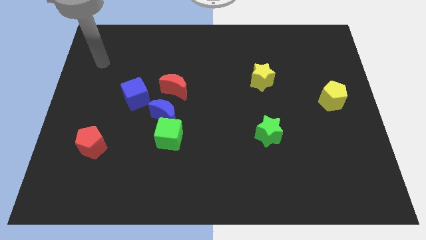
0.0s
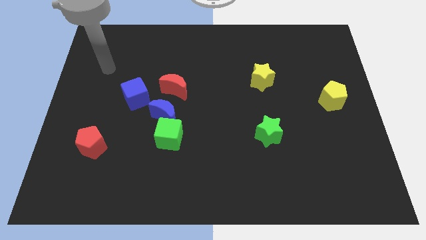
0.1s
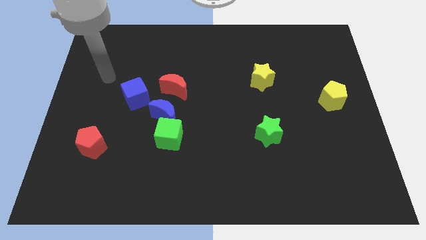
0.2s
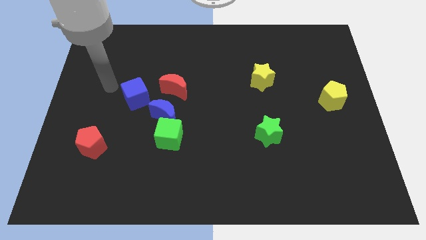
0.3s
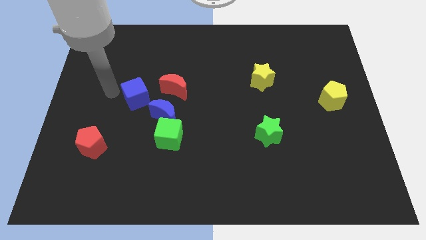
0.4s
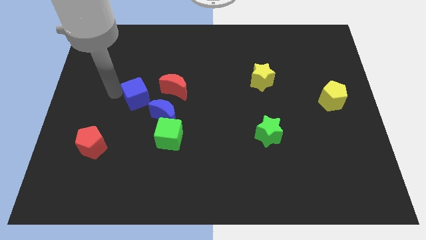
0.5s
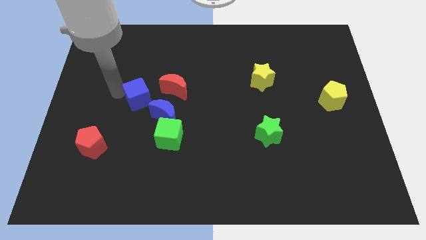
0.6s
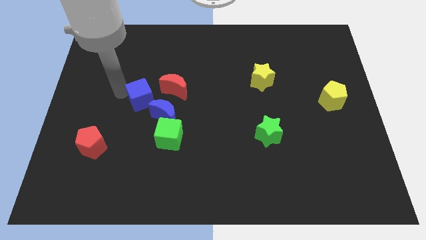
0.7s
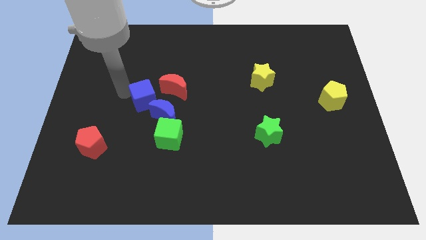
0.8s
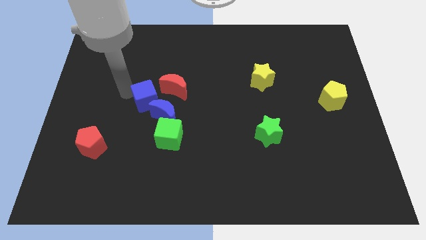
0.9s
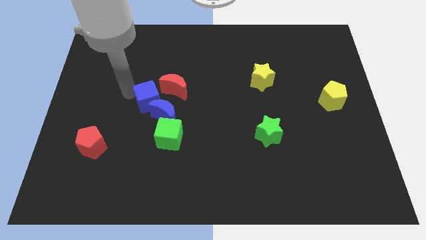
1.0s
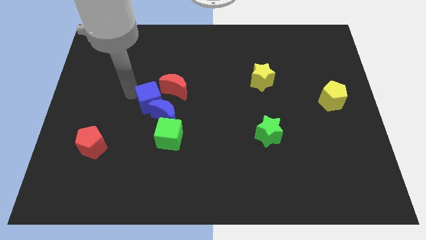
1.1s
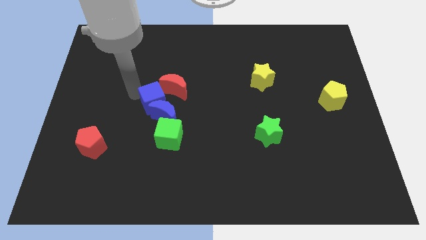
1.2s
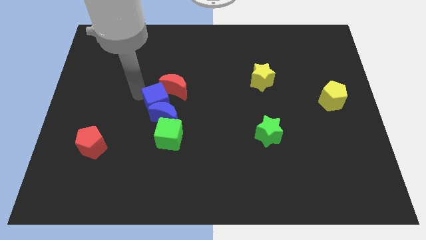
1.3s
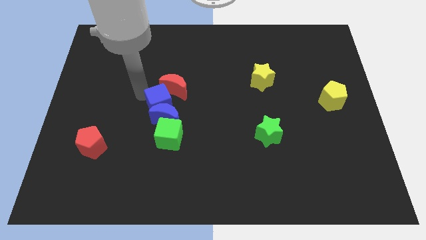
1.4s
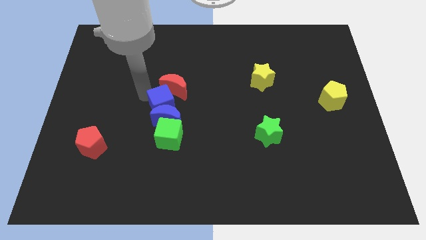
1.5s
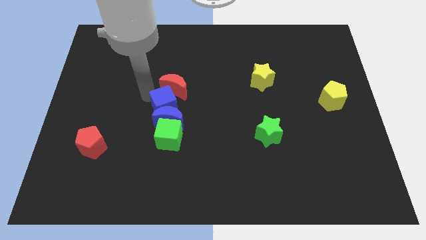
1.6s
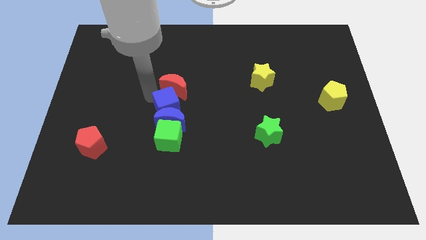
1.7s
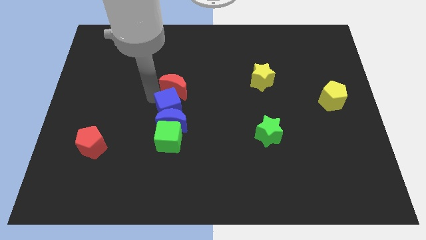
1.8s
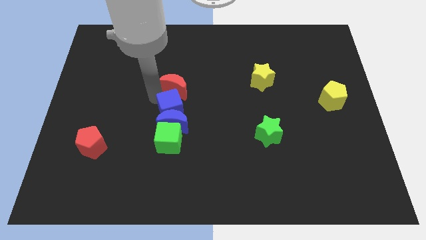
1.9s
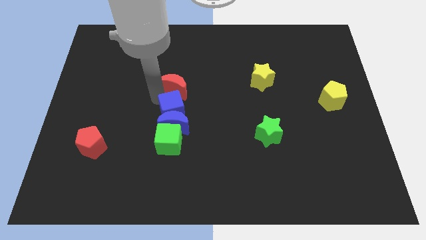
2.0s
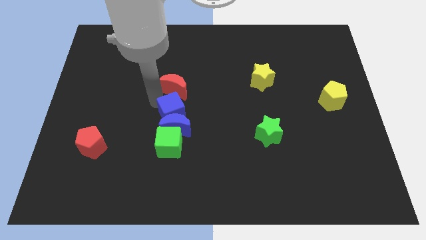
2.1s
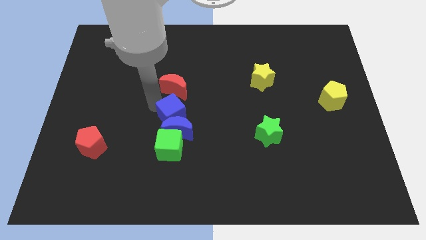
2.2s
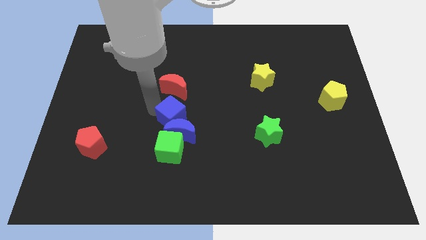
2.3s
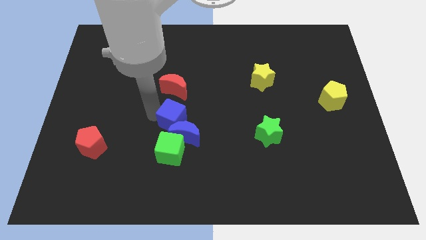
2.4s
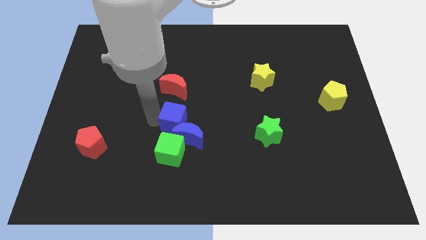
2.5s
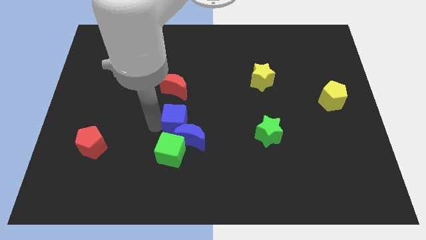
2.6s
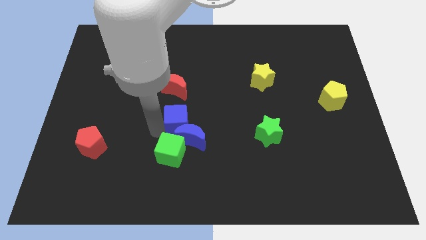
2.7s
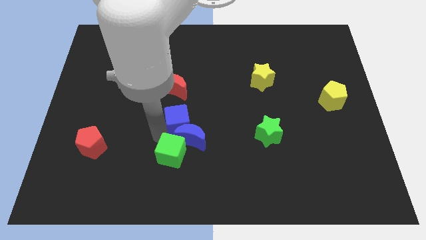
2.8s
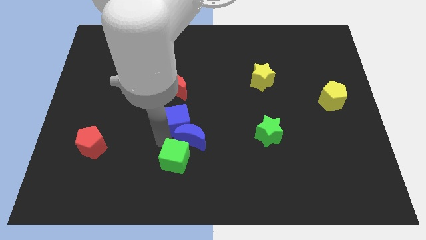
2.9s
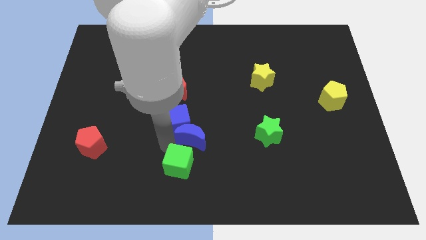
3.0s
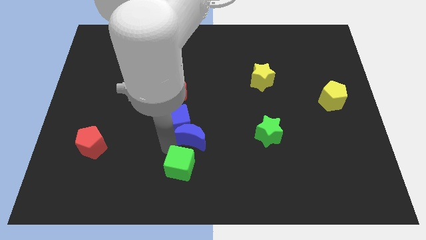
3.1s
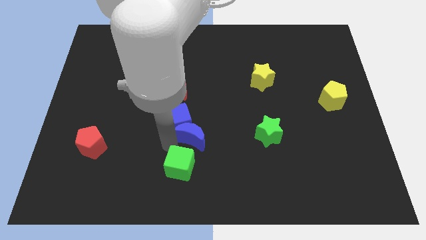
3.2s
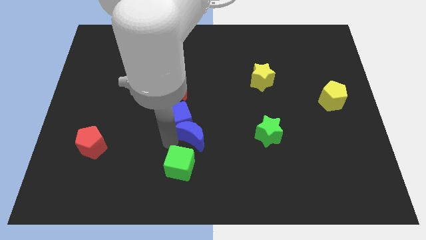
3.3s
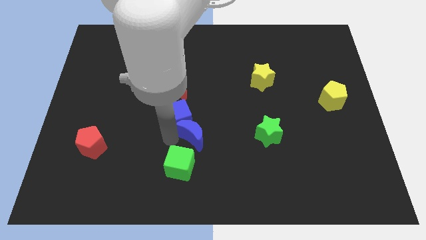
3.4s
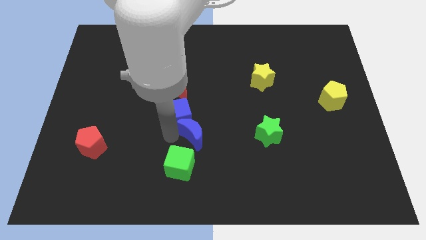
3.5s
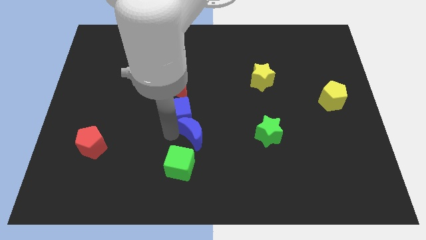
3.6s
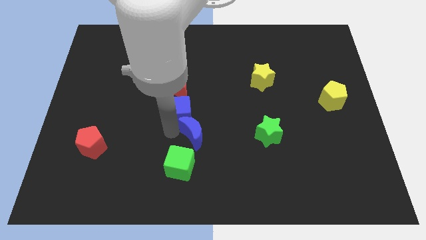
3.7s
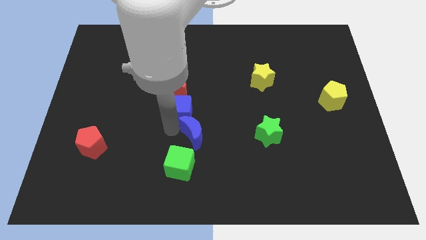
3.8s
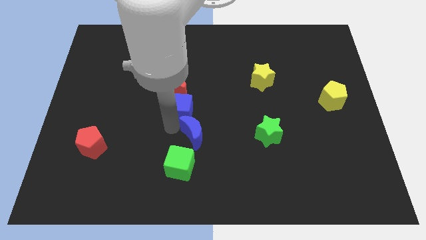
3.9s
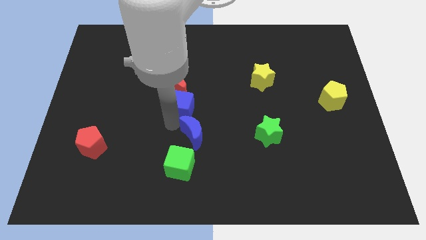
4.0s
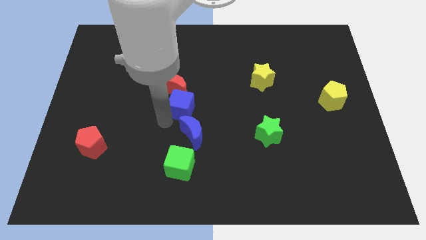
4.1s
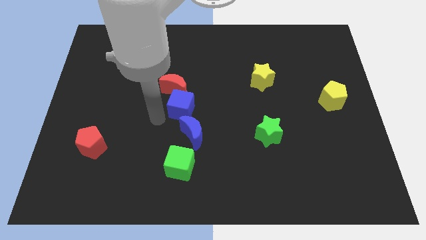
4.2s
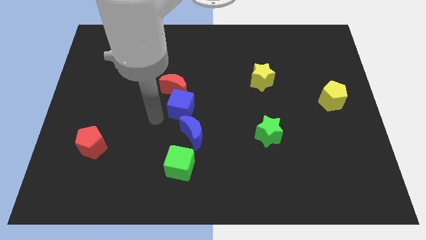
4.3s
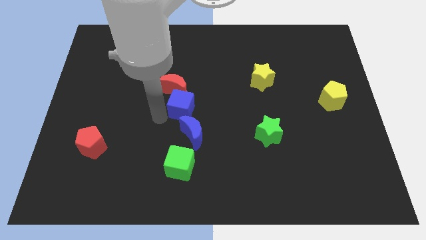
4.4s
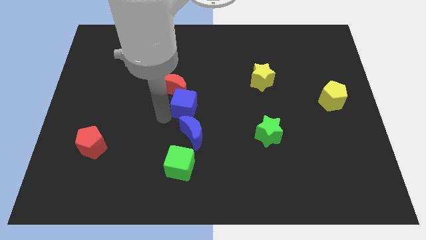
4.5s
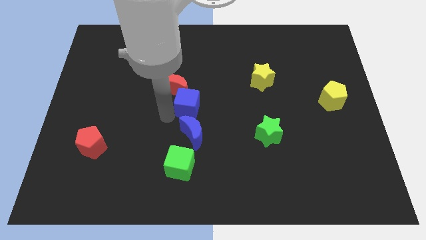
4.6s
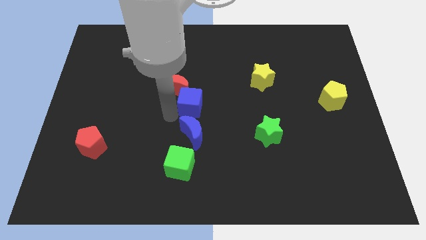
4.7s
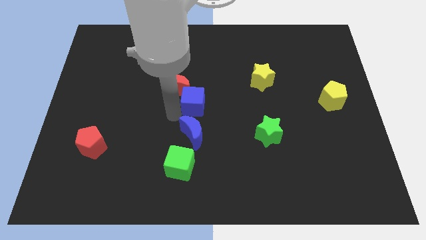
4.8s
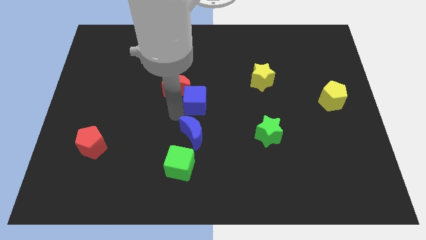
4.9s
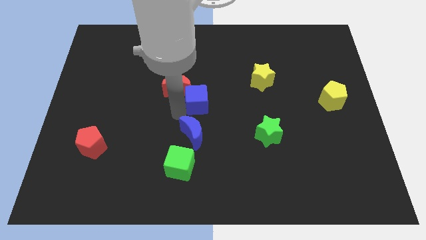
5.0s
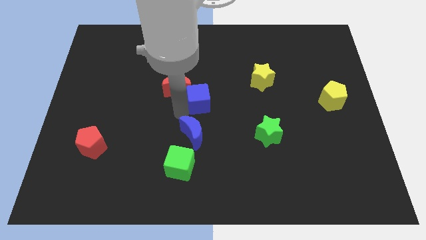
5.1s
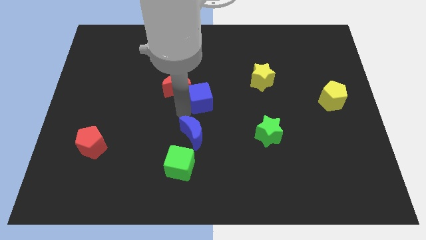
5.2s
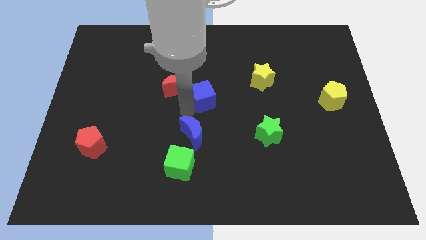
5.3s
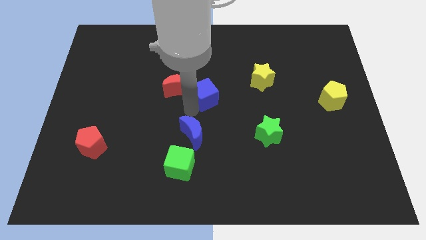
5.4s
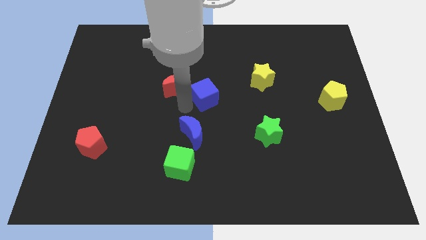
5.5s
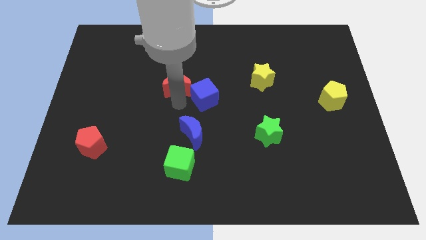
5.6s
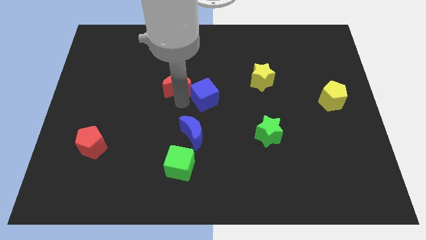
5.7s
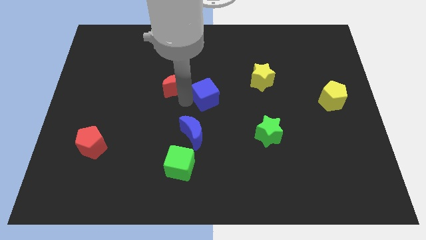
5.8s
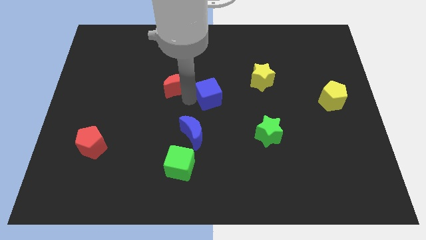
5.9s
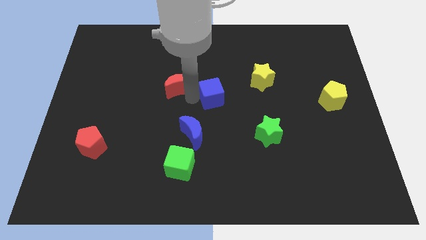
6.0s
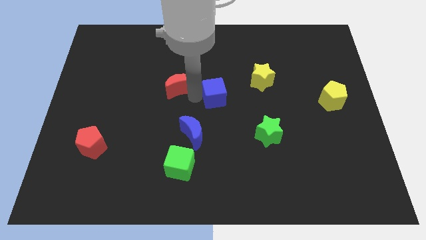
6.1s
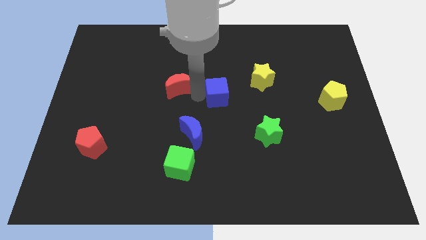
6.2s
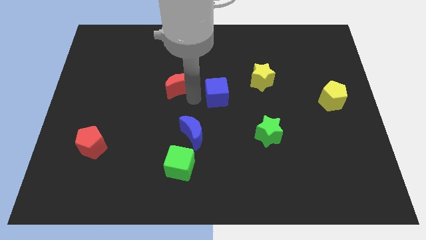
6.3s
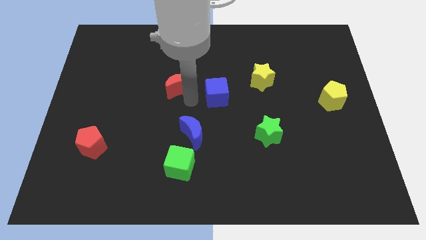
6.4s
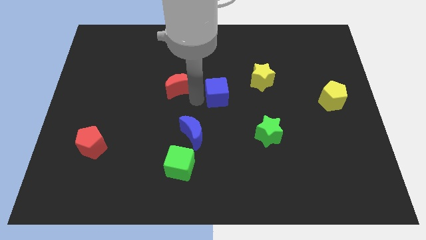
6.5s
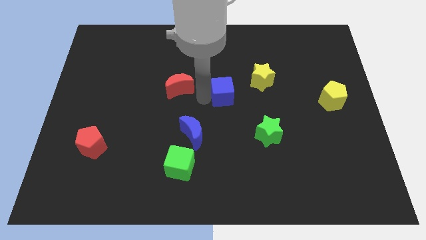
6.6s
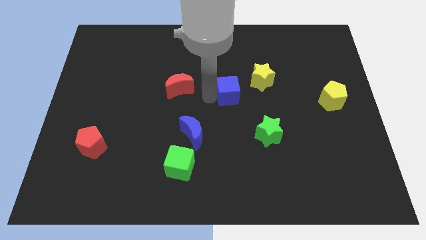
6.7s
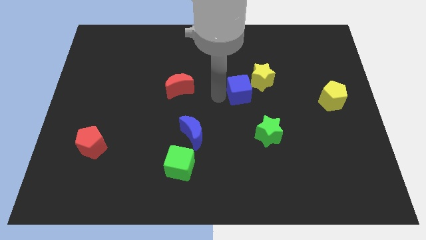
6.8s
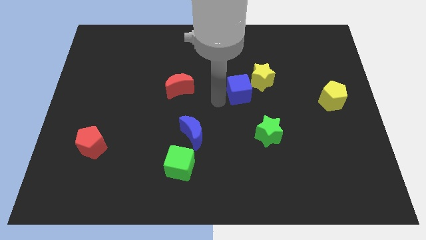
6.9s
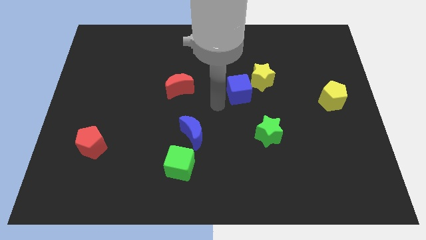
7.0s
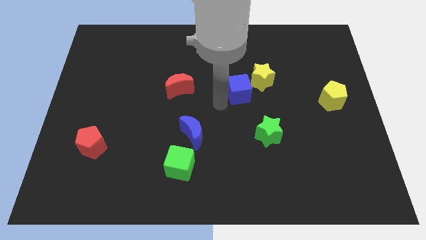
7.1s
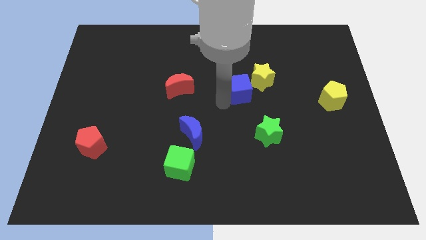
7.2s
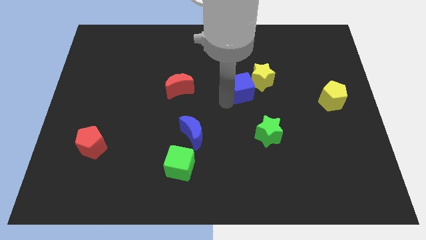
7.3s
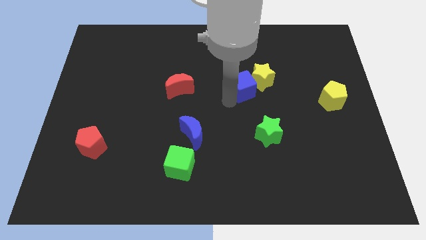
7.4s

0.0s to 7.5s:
push the blue cube close to the yellow star
